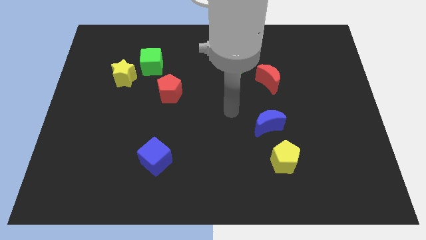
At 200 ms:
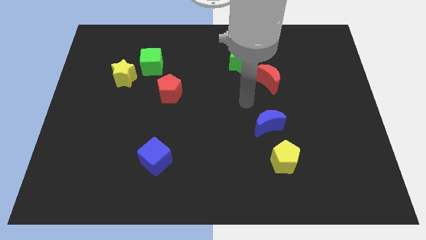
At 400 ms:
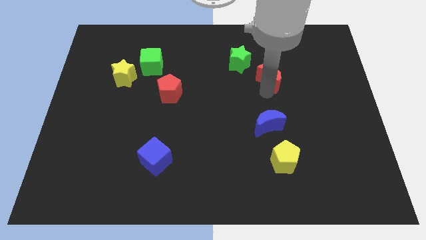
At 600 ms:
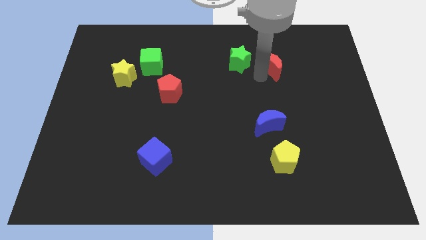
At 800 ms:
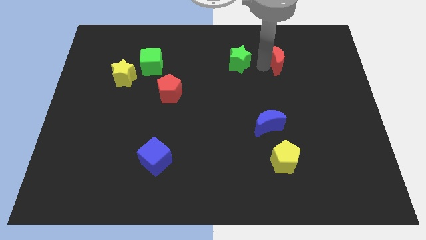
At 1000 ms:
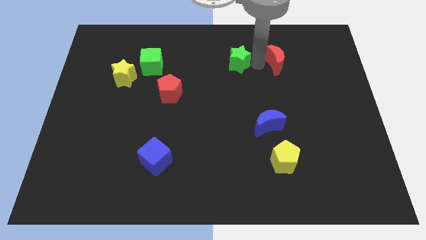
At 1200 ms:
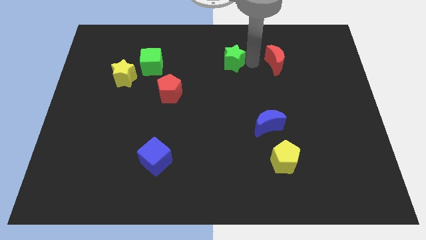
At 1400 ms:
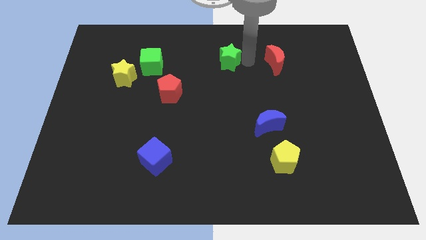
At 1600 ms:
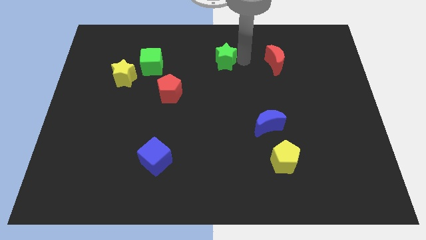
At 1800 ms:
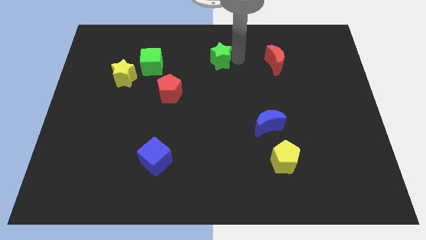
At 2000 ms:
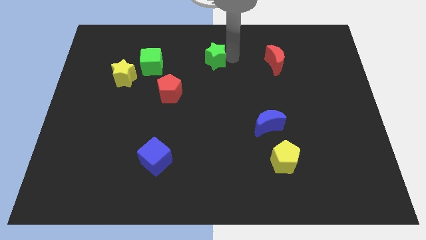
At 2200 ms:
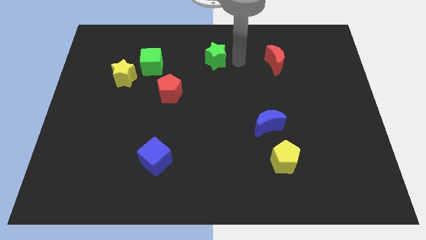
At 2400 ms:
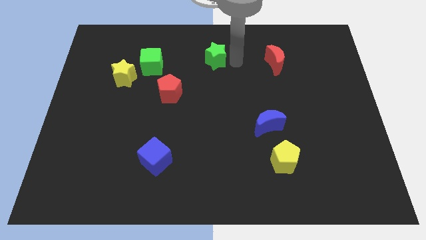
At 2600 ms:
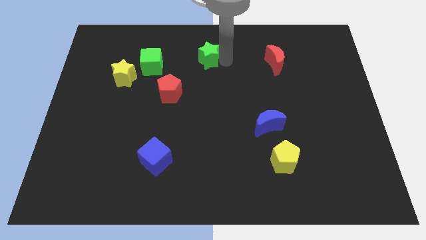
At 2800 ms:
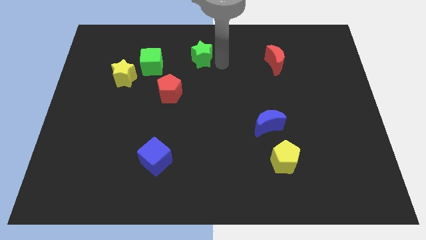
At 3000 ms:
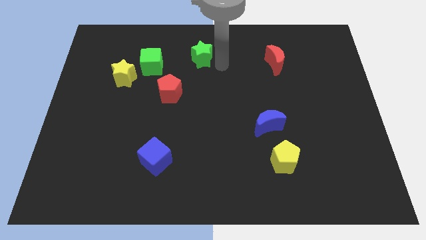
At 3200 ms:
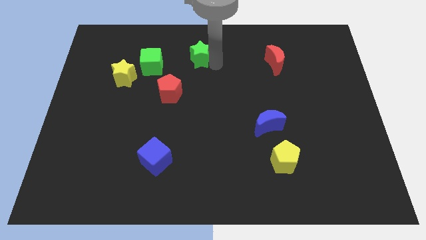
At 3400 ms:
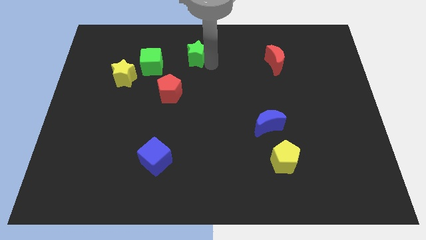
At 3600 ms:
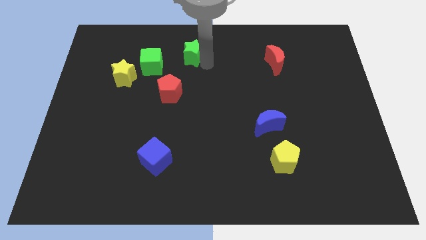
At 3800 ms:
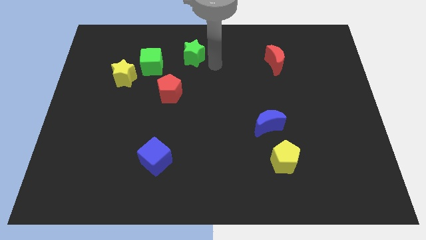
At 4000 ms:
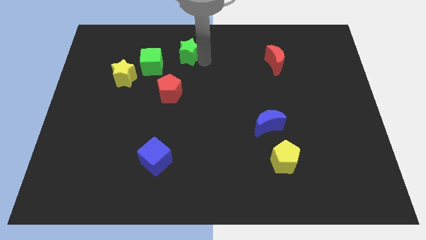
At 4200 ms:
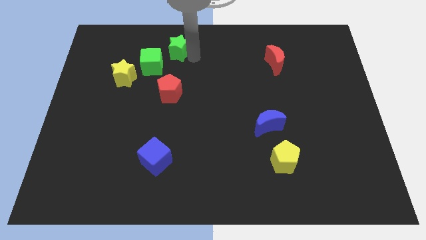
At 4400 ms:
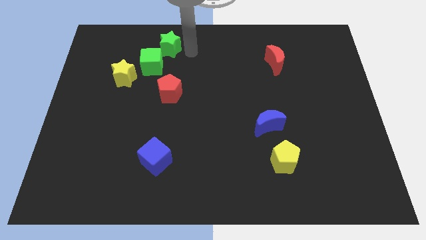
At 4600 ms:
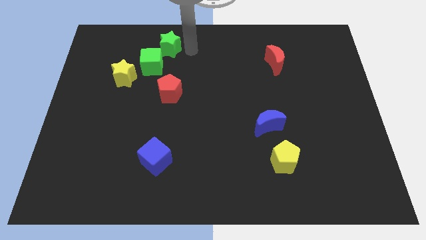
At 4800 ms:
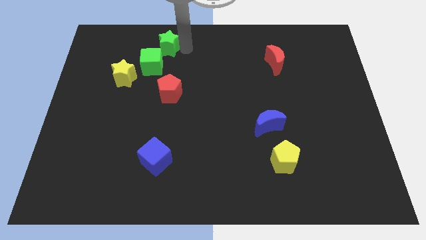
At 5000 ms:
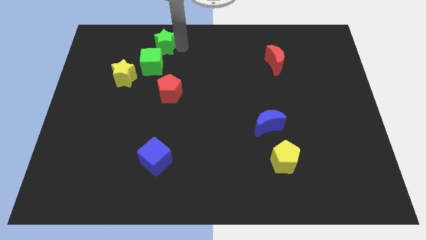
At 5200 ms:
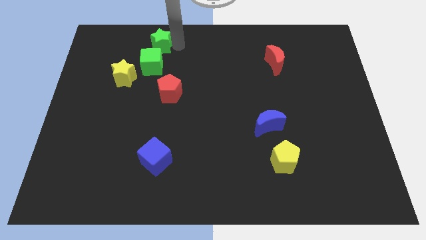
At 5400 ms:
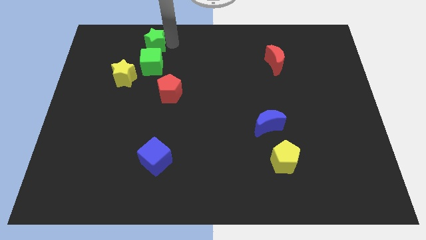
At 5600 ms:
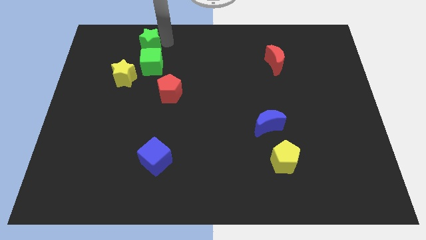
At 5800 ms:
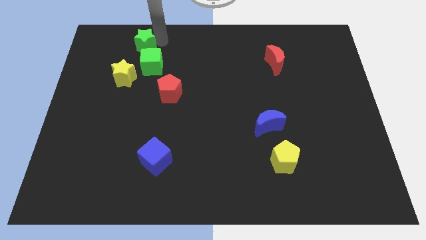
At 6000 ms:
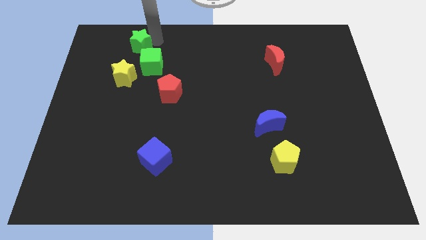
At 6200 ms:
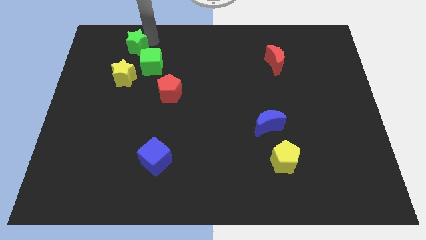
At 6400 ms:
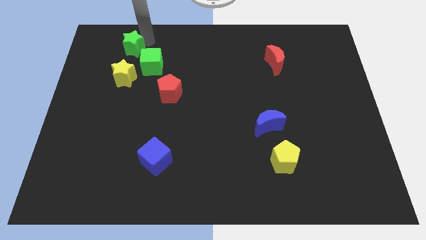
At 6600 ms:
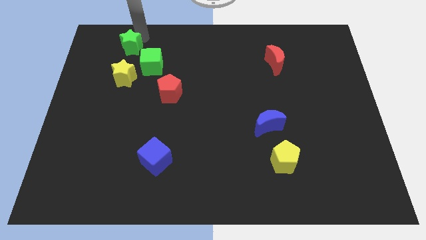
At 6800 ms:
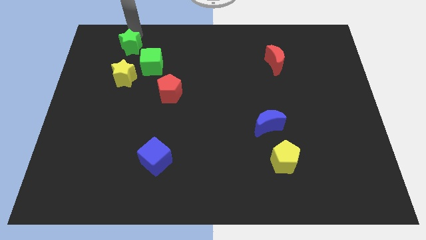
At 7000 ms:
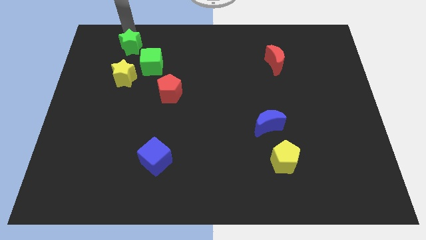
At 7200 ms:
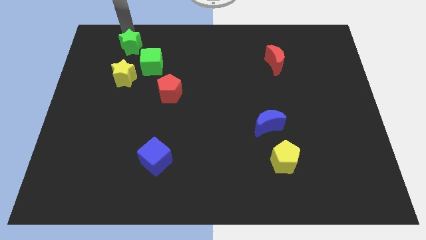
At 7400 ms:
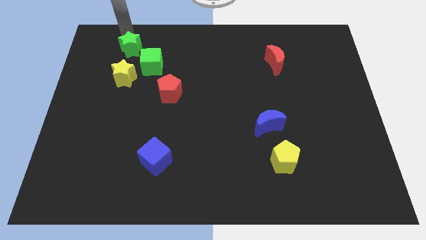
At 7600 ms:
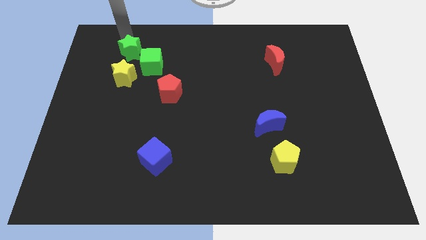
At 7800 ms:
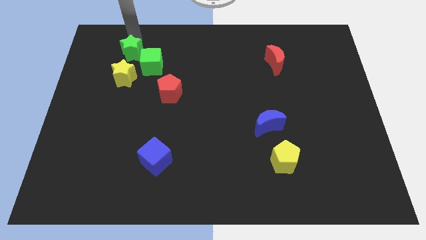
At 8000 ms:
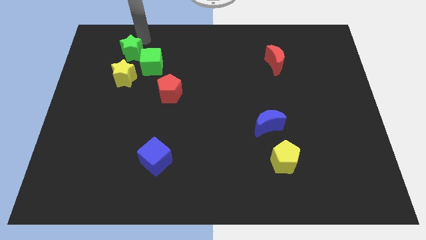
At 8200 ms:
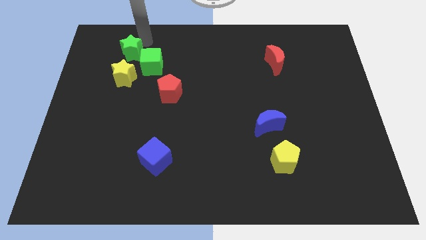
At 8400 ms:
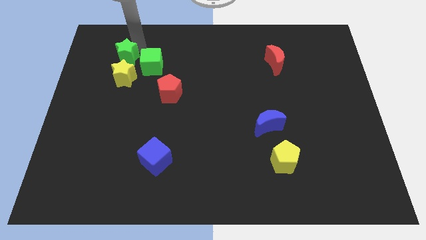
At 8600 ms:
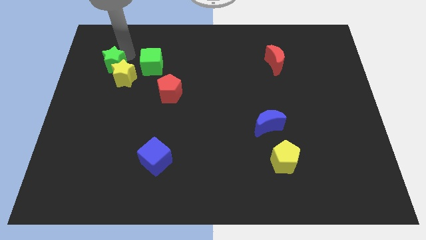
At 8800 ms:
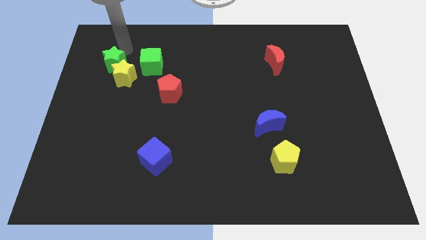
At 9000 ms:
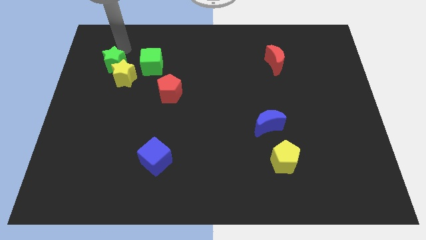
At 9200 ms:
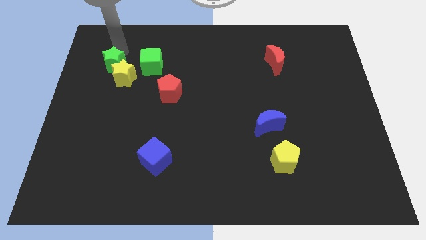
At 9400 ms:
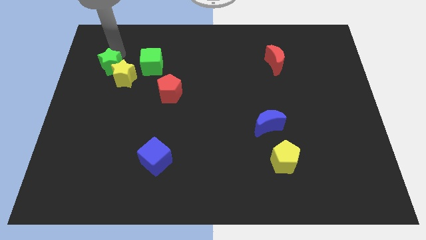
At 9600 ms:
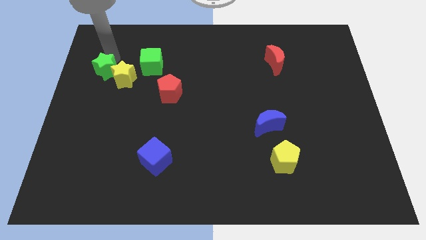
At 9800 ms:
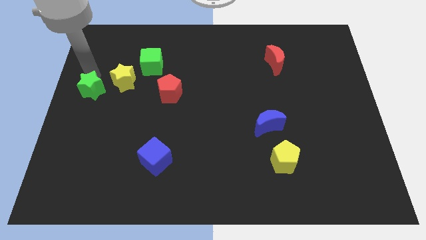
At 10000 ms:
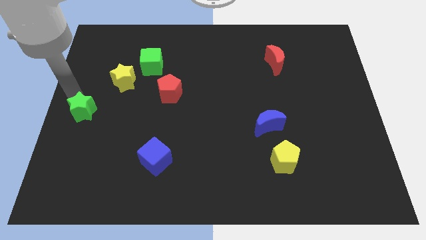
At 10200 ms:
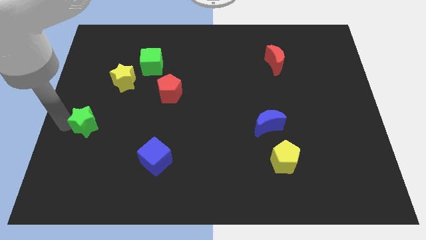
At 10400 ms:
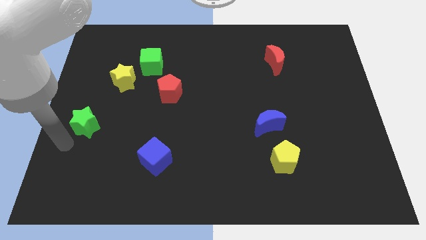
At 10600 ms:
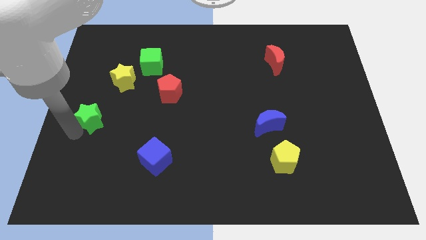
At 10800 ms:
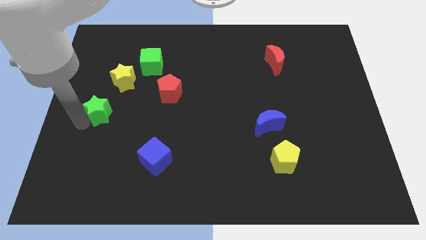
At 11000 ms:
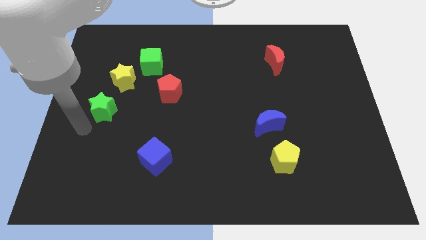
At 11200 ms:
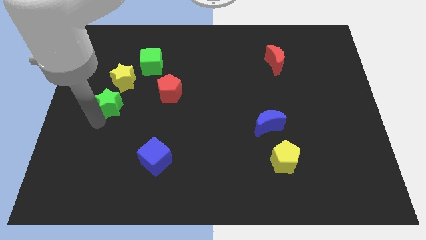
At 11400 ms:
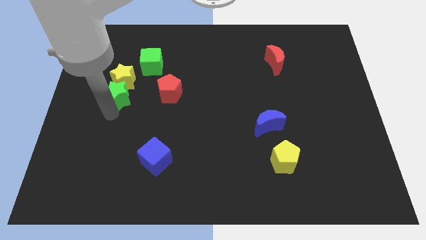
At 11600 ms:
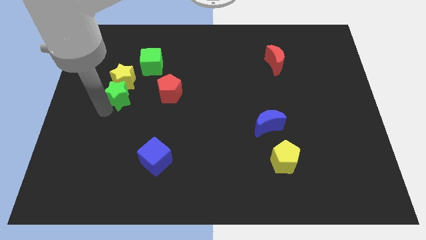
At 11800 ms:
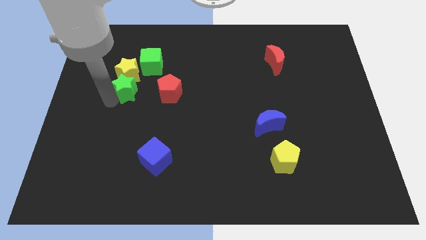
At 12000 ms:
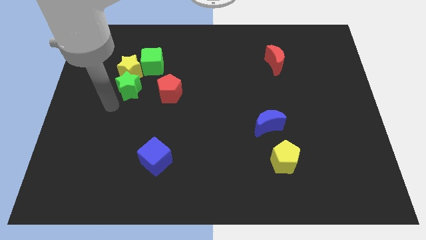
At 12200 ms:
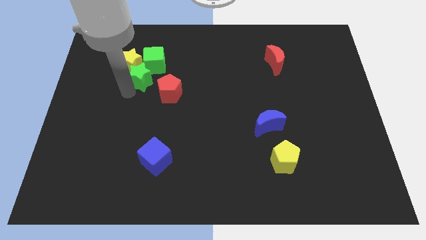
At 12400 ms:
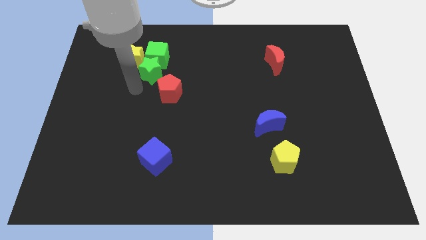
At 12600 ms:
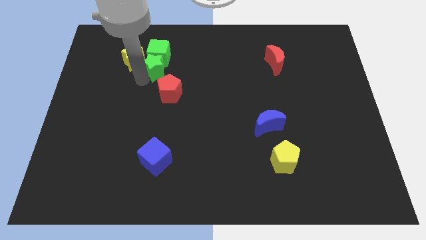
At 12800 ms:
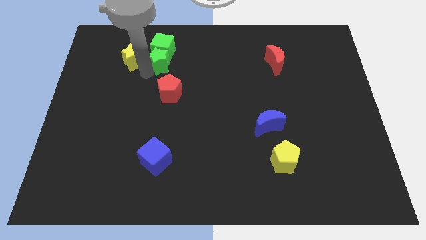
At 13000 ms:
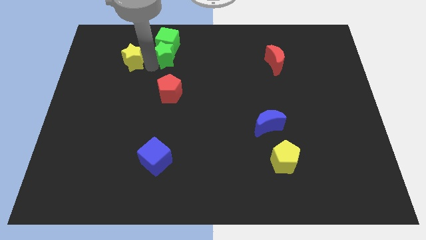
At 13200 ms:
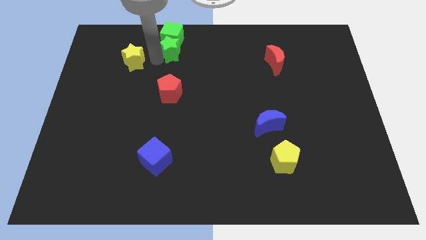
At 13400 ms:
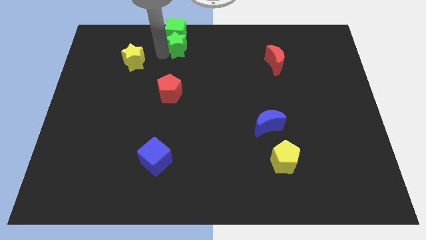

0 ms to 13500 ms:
slide the green star to the top side
